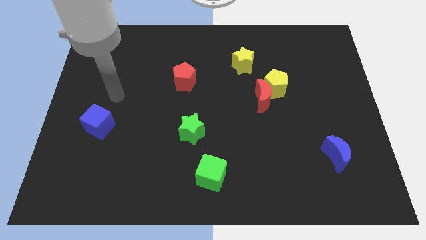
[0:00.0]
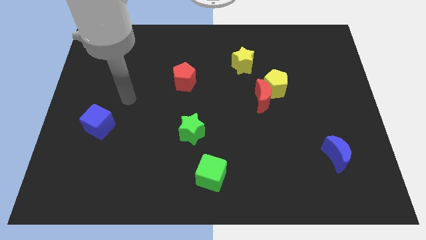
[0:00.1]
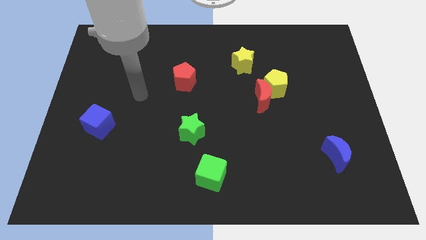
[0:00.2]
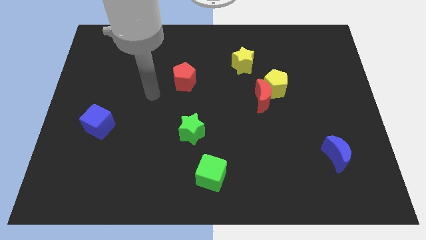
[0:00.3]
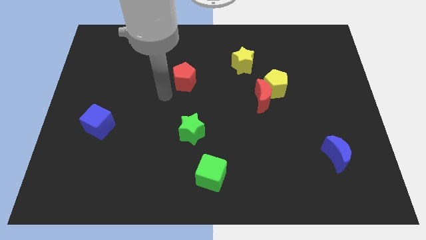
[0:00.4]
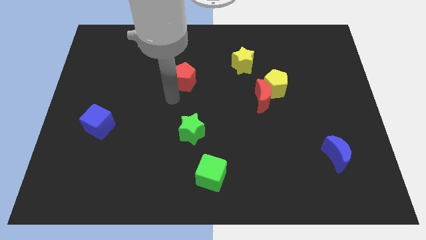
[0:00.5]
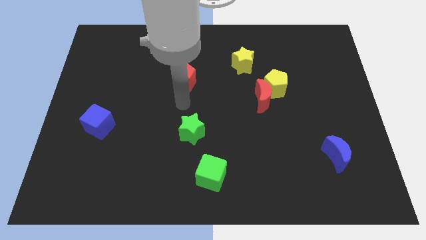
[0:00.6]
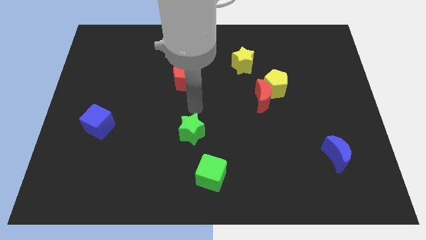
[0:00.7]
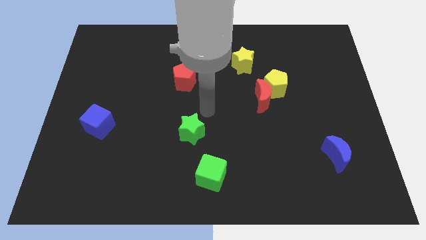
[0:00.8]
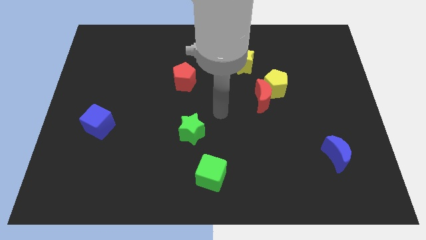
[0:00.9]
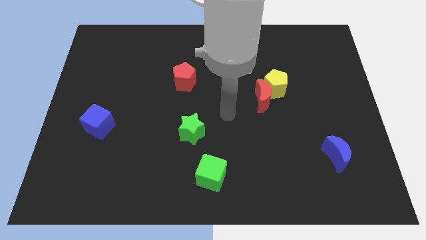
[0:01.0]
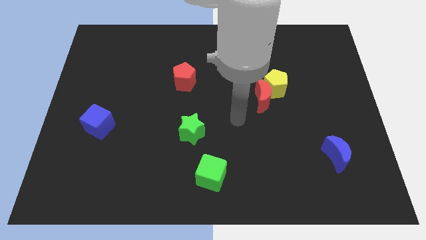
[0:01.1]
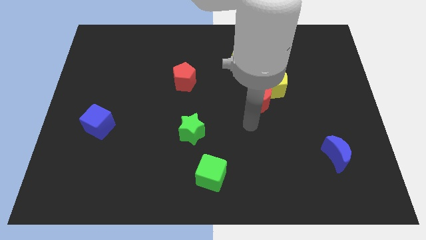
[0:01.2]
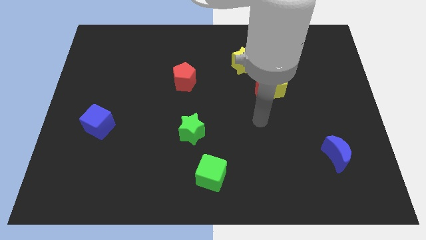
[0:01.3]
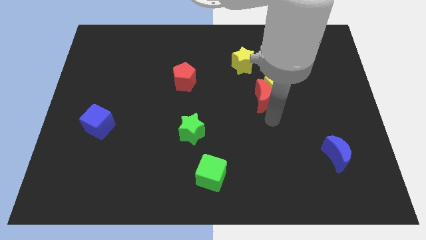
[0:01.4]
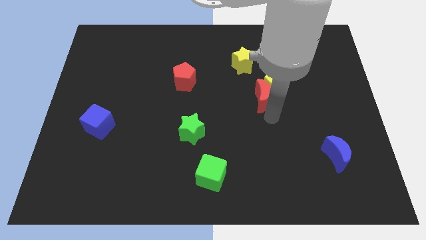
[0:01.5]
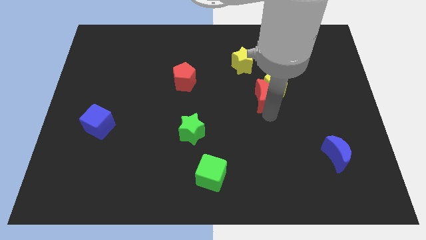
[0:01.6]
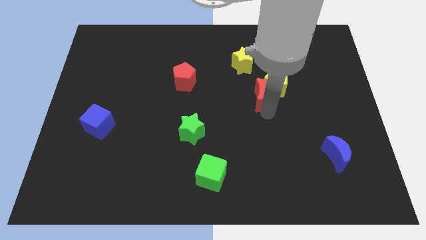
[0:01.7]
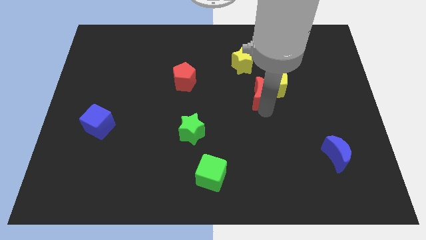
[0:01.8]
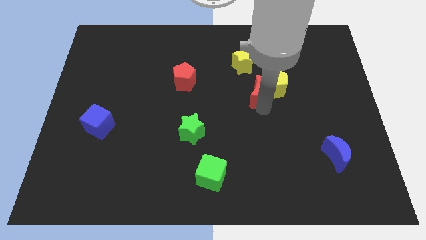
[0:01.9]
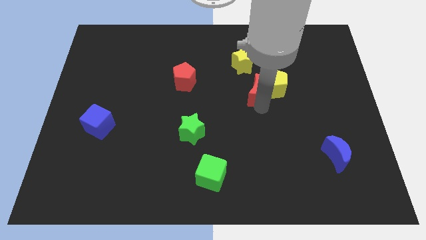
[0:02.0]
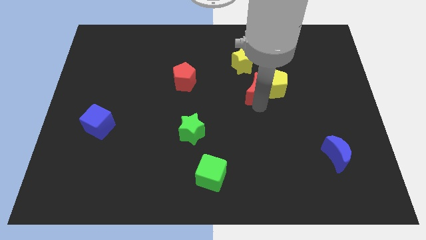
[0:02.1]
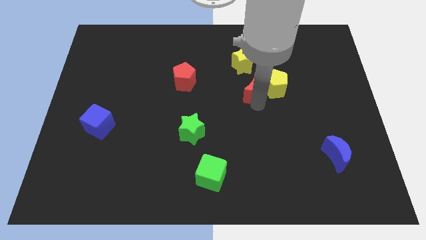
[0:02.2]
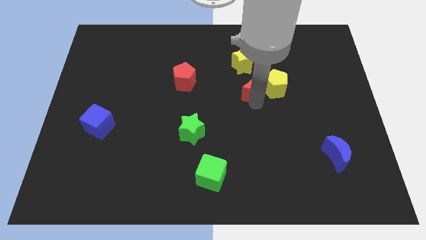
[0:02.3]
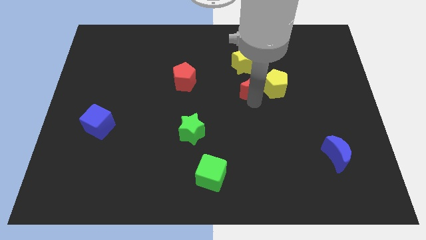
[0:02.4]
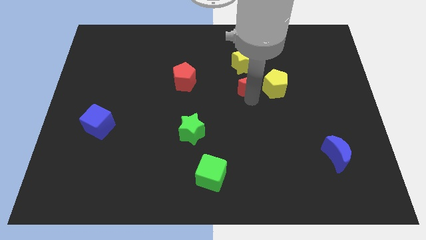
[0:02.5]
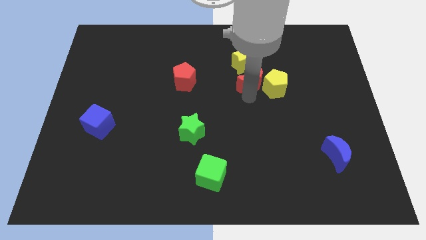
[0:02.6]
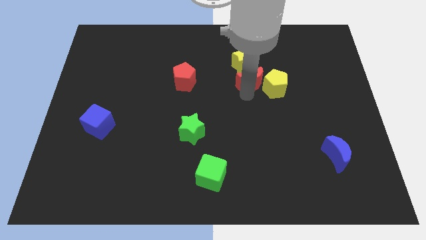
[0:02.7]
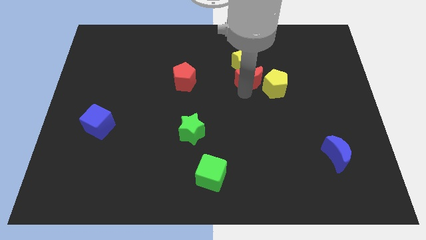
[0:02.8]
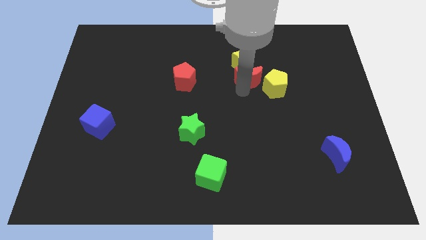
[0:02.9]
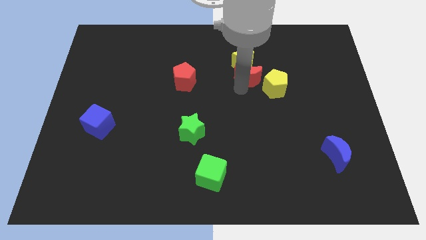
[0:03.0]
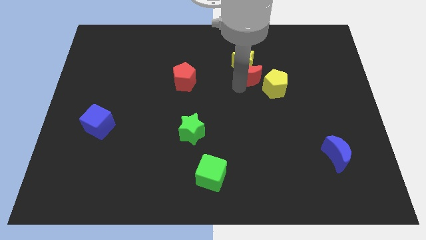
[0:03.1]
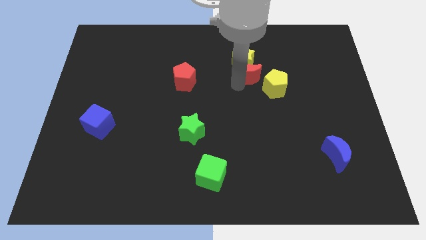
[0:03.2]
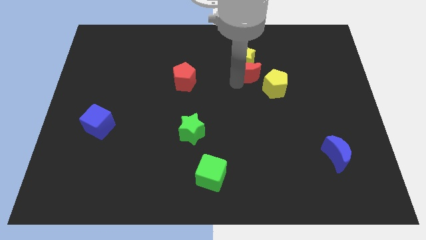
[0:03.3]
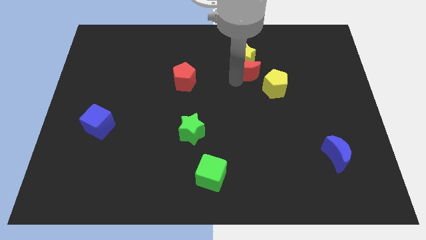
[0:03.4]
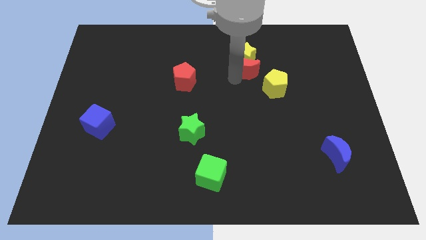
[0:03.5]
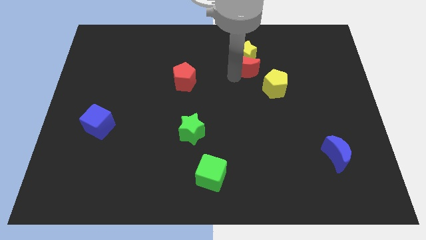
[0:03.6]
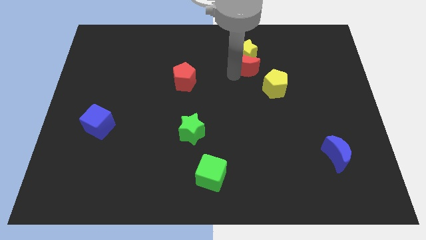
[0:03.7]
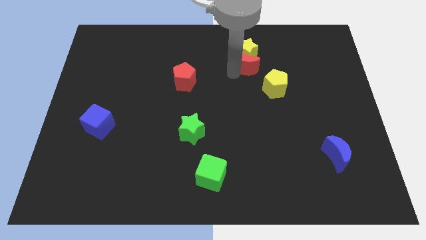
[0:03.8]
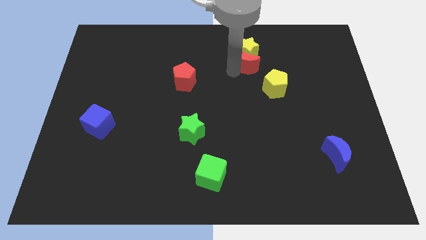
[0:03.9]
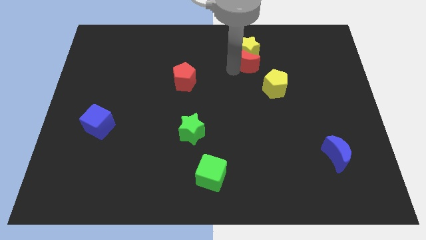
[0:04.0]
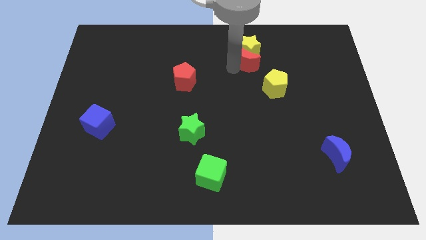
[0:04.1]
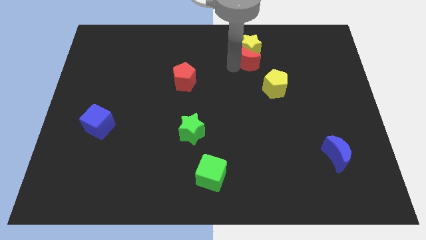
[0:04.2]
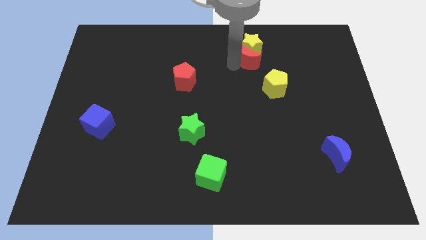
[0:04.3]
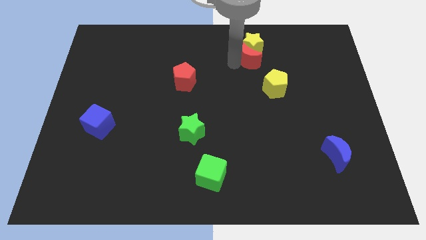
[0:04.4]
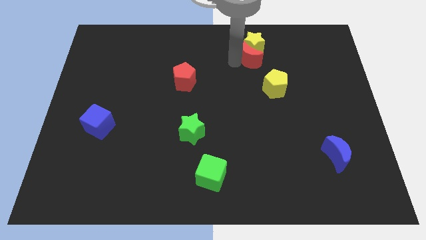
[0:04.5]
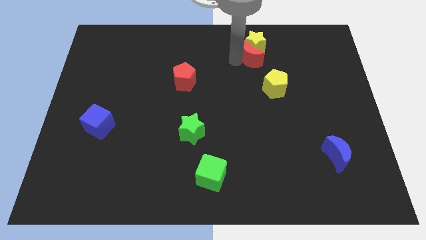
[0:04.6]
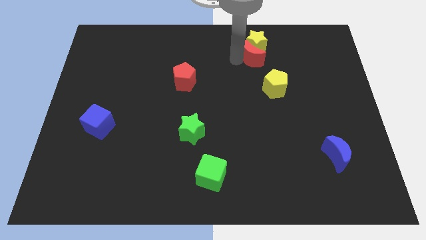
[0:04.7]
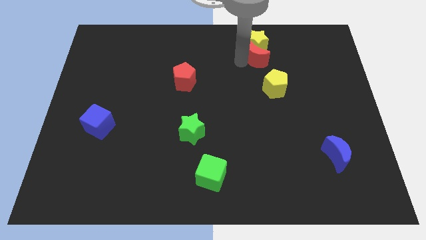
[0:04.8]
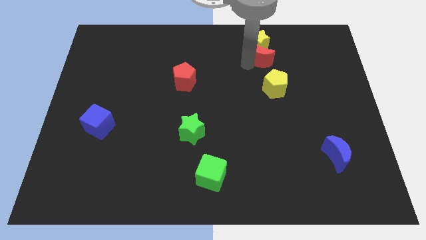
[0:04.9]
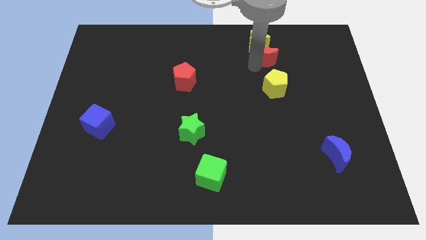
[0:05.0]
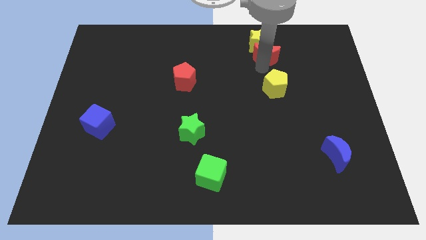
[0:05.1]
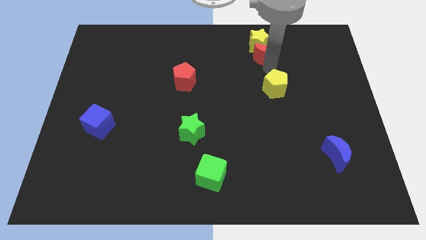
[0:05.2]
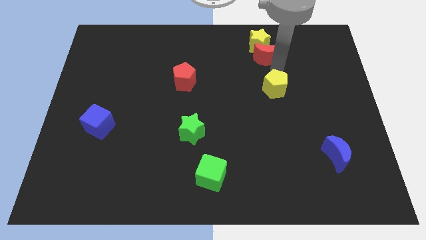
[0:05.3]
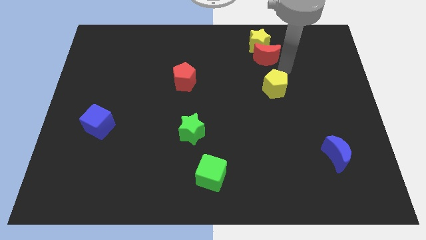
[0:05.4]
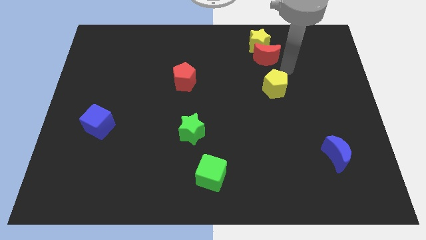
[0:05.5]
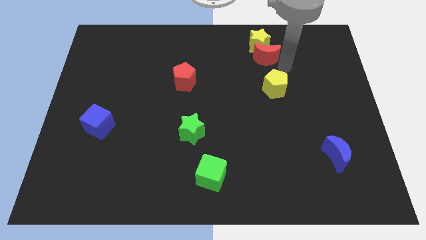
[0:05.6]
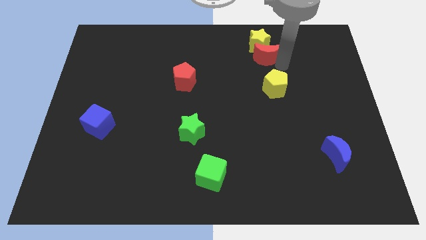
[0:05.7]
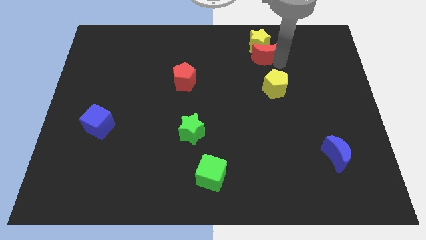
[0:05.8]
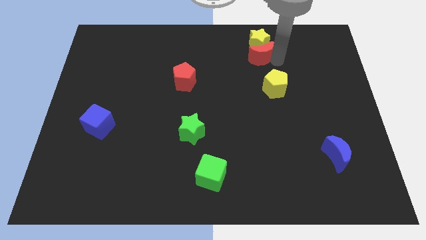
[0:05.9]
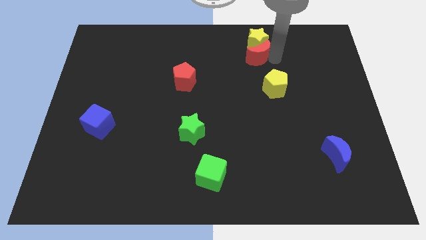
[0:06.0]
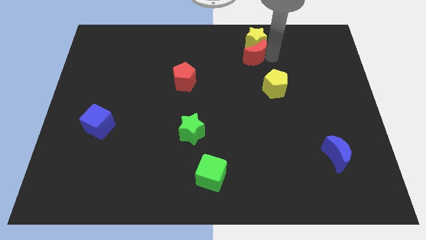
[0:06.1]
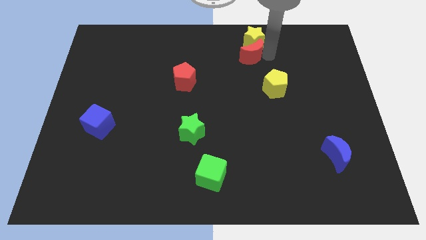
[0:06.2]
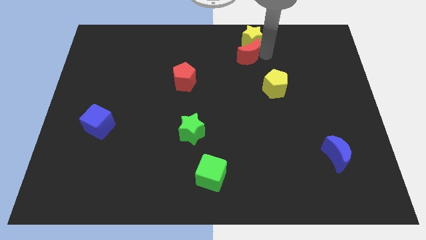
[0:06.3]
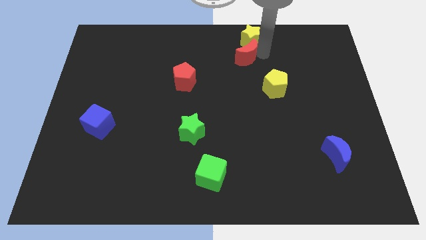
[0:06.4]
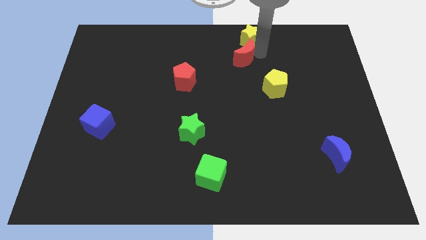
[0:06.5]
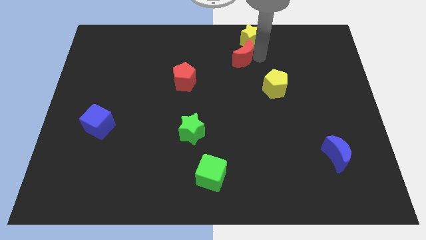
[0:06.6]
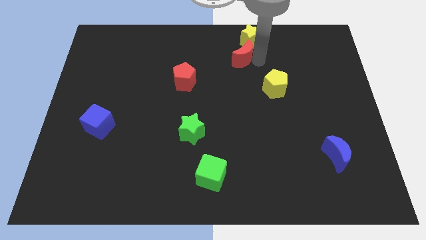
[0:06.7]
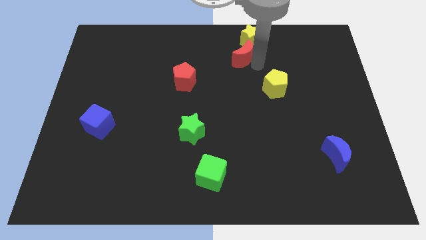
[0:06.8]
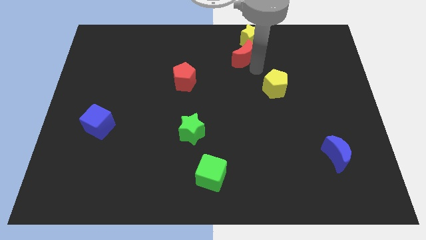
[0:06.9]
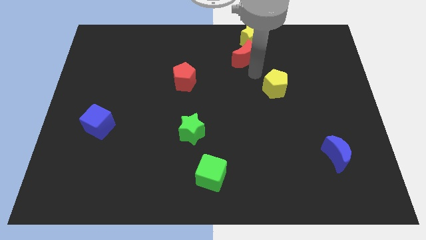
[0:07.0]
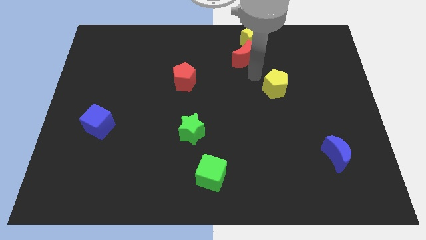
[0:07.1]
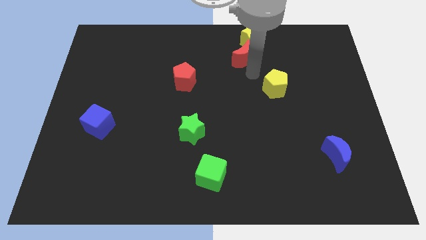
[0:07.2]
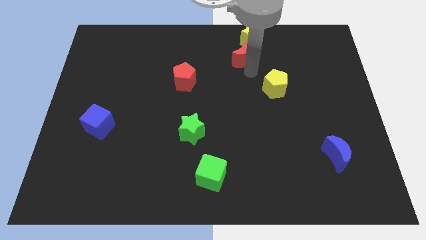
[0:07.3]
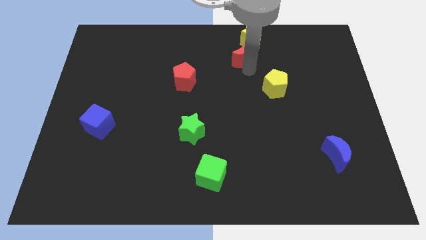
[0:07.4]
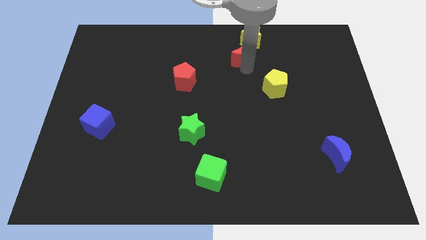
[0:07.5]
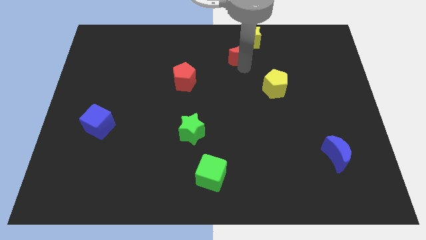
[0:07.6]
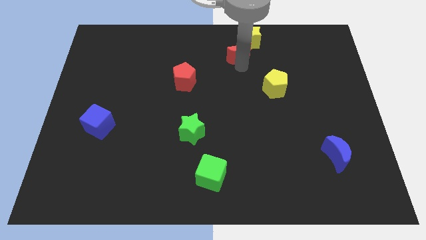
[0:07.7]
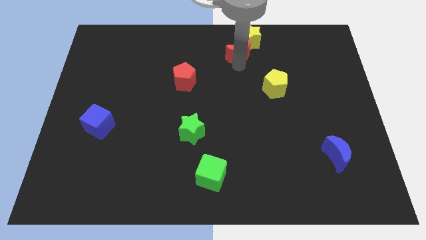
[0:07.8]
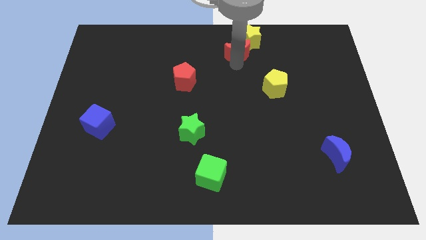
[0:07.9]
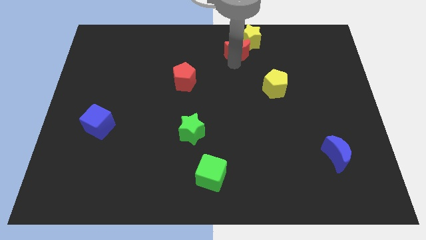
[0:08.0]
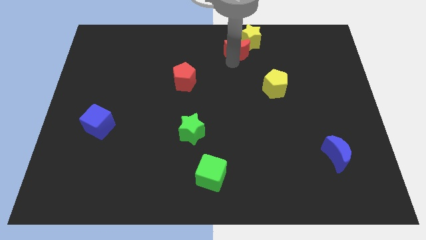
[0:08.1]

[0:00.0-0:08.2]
push the red moon to the top side
